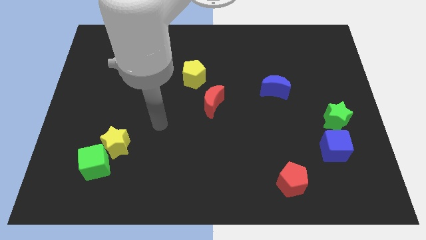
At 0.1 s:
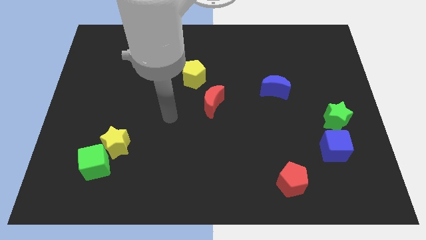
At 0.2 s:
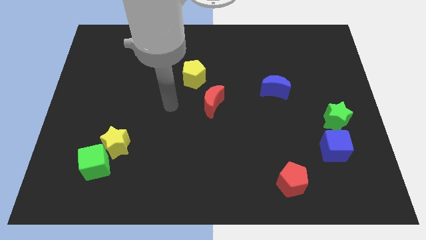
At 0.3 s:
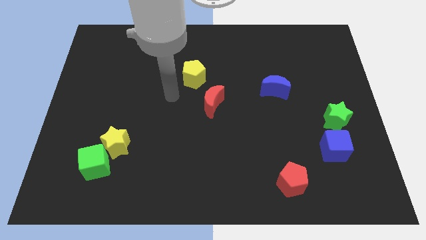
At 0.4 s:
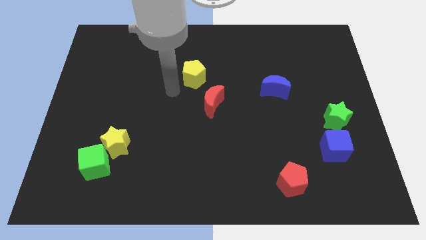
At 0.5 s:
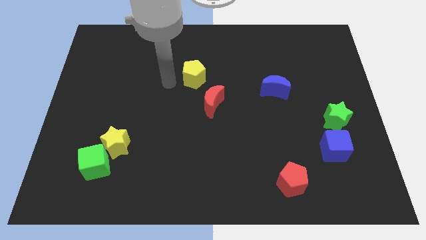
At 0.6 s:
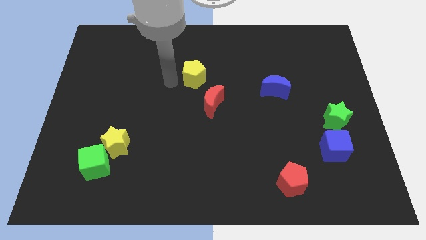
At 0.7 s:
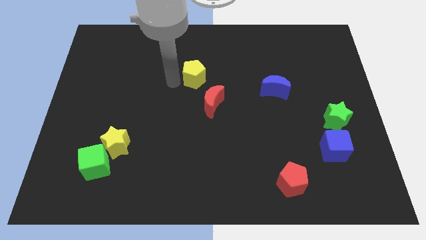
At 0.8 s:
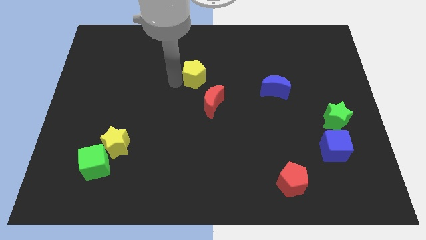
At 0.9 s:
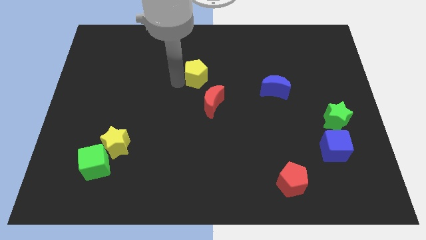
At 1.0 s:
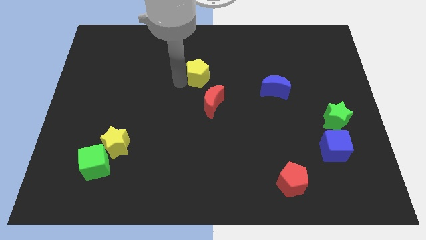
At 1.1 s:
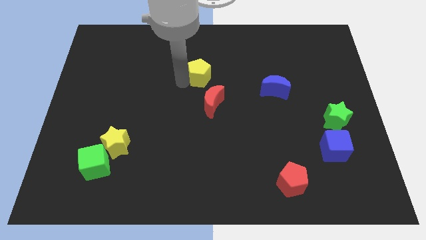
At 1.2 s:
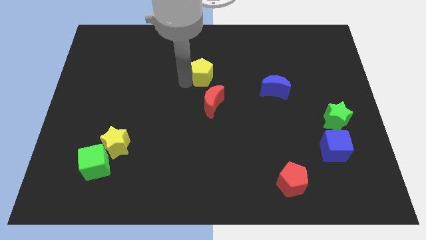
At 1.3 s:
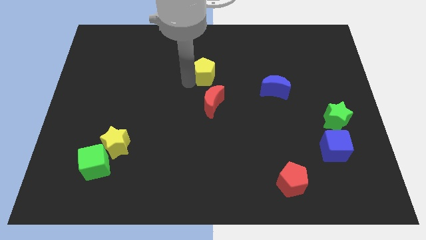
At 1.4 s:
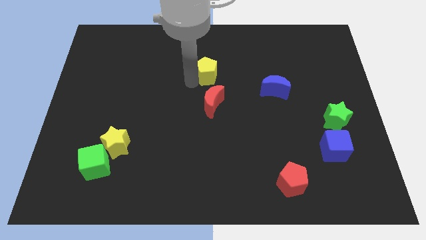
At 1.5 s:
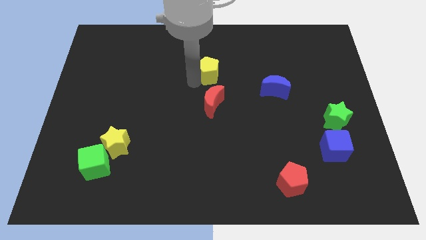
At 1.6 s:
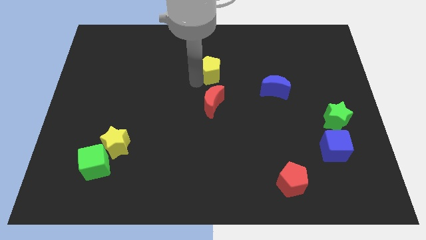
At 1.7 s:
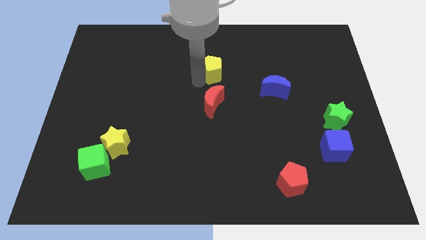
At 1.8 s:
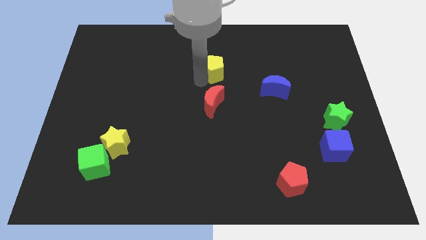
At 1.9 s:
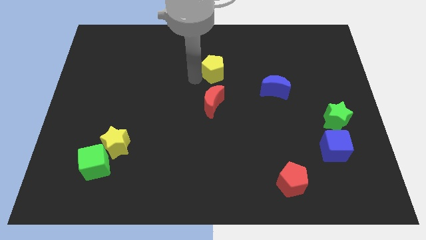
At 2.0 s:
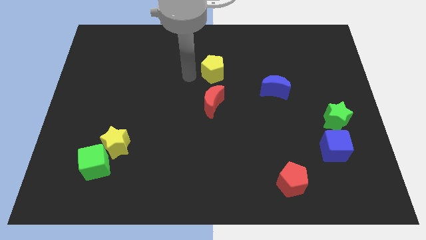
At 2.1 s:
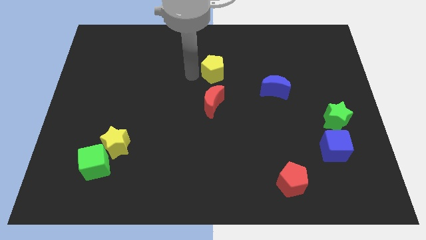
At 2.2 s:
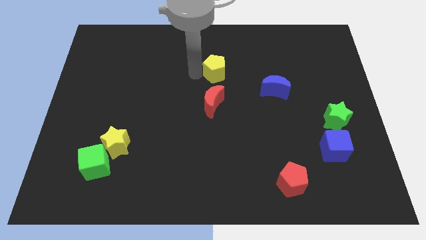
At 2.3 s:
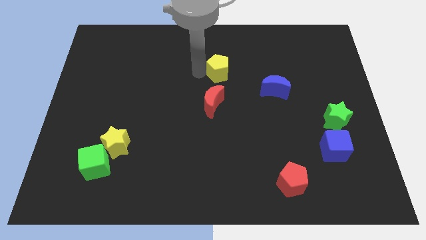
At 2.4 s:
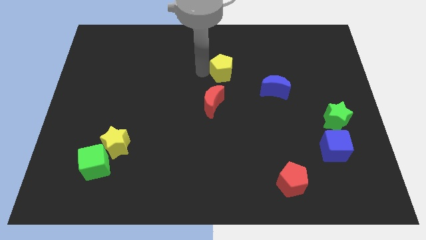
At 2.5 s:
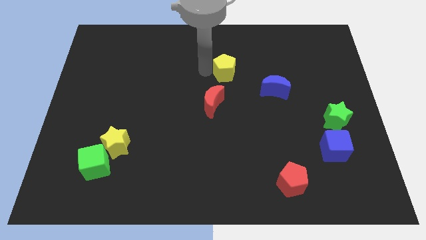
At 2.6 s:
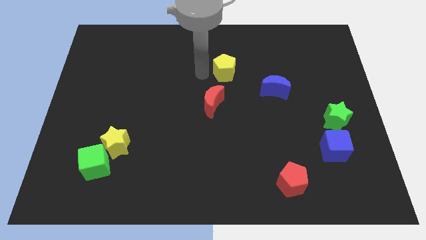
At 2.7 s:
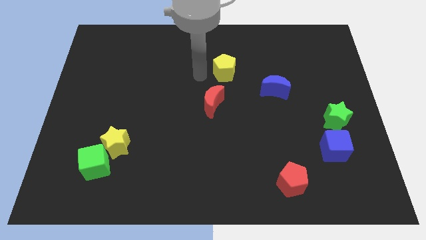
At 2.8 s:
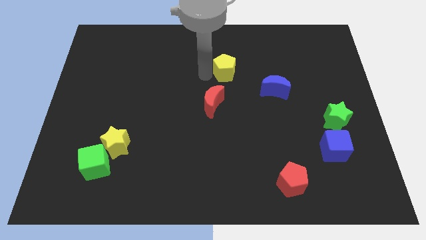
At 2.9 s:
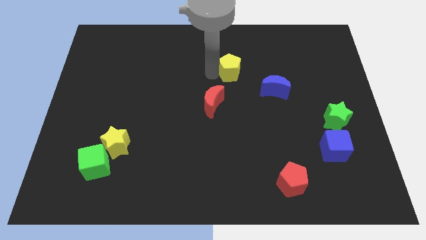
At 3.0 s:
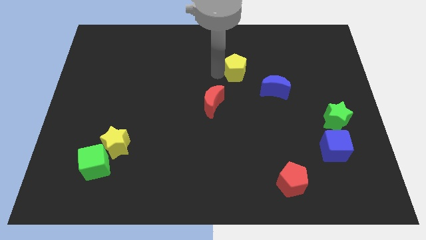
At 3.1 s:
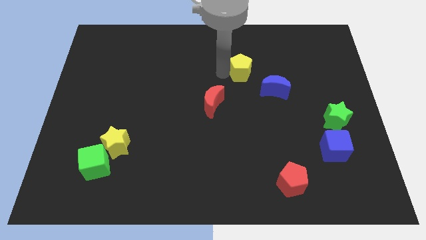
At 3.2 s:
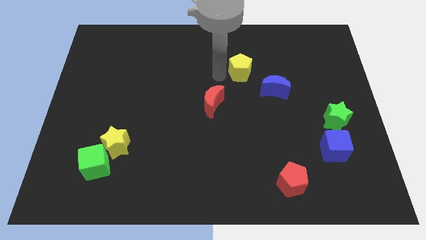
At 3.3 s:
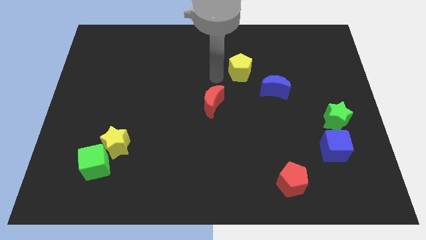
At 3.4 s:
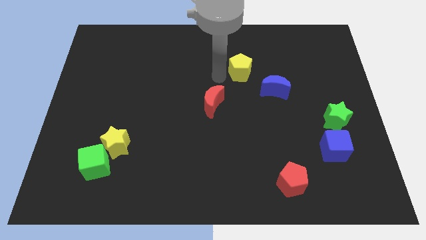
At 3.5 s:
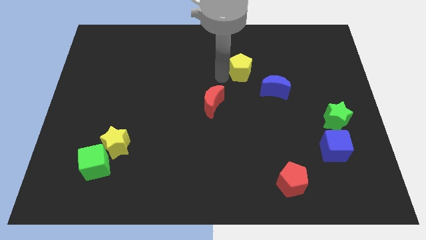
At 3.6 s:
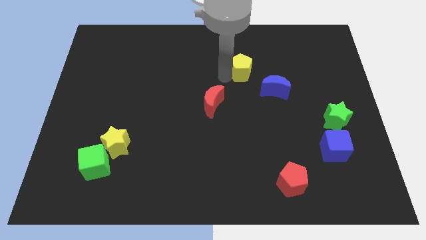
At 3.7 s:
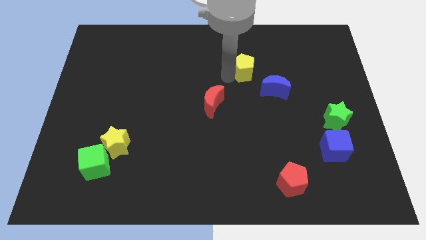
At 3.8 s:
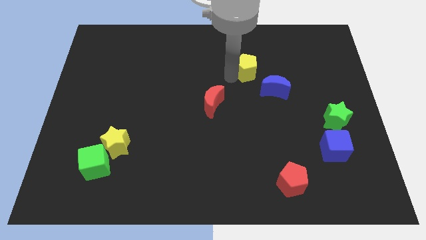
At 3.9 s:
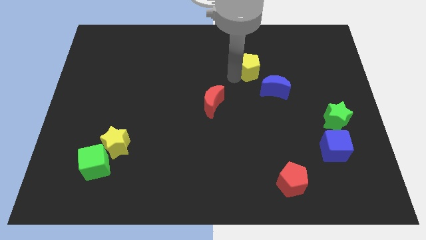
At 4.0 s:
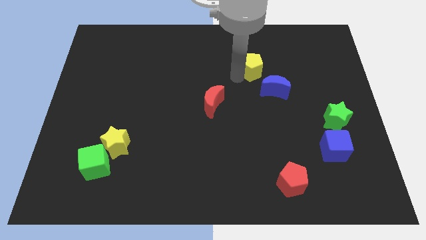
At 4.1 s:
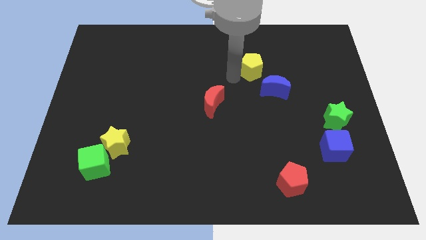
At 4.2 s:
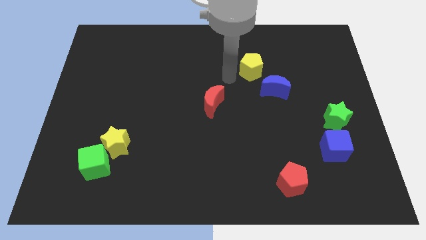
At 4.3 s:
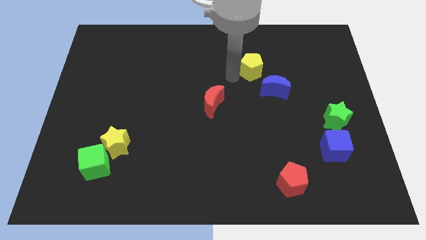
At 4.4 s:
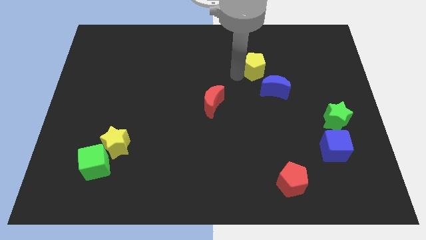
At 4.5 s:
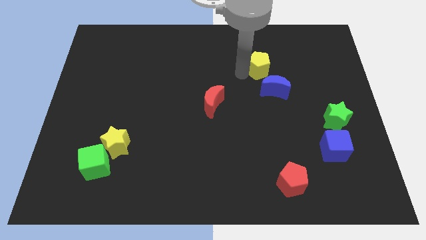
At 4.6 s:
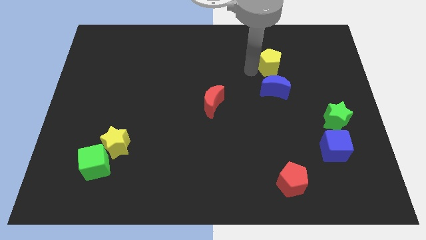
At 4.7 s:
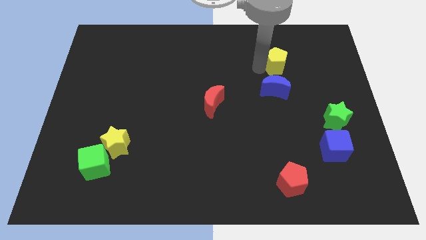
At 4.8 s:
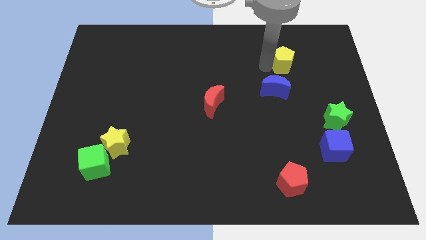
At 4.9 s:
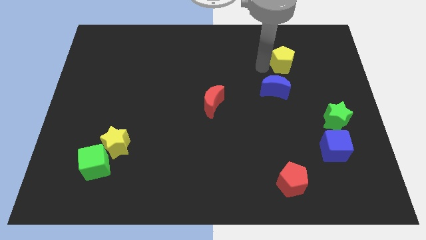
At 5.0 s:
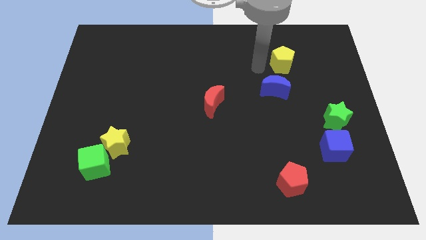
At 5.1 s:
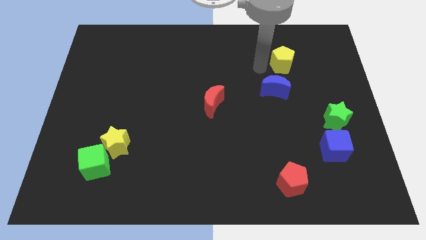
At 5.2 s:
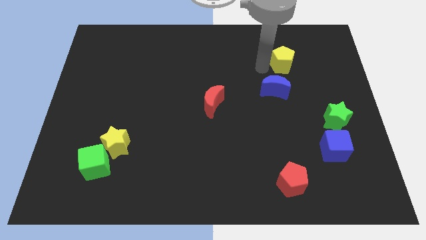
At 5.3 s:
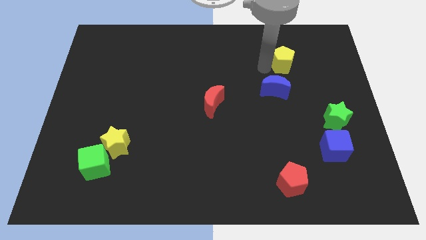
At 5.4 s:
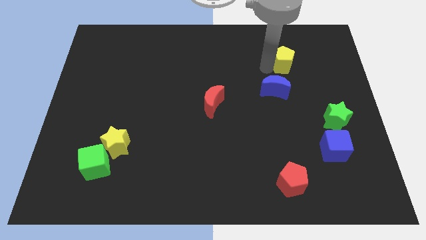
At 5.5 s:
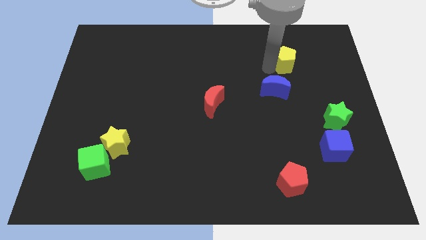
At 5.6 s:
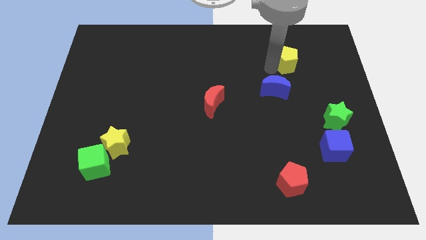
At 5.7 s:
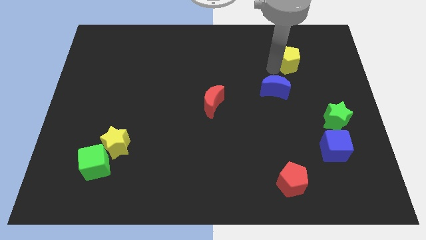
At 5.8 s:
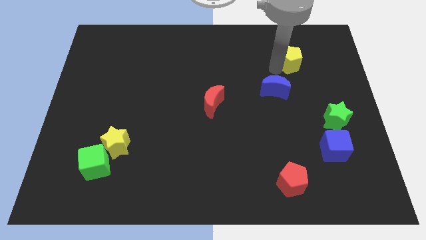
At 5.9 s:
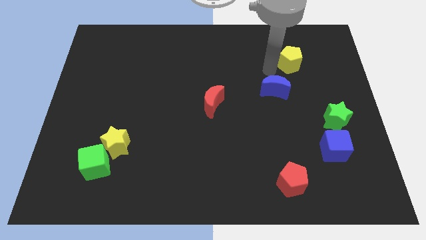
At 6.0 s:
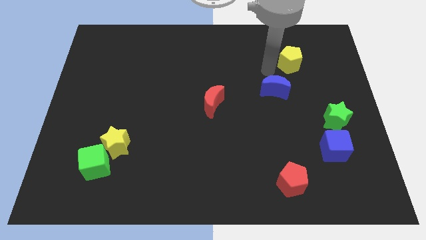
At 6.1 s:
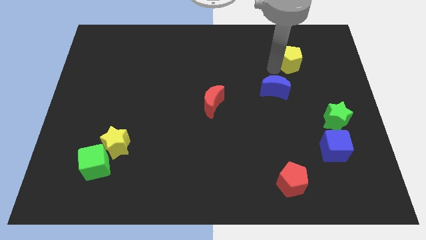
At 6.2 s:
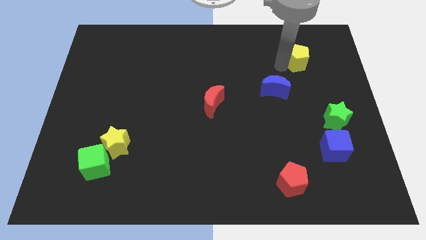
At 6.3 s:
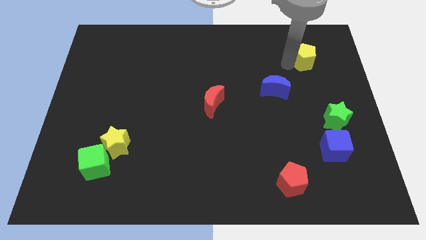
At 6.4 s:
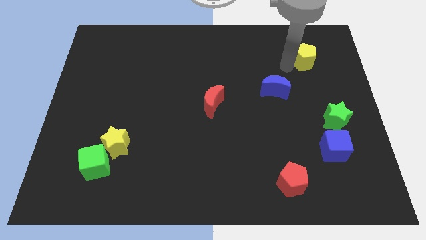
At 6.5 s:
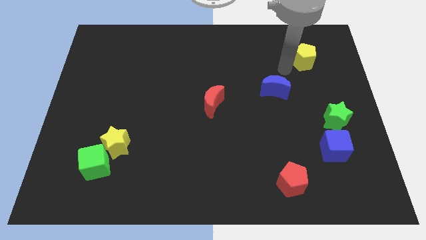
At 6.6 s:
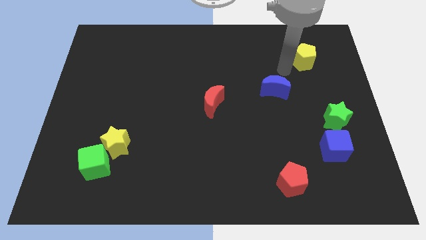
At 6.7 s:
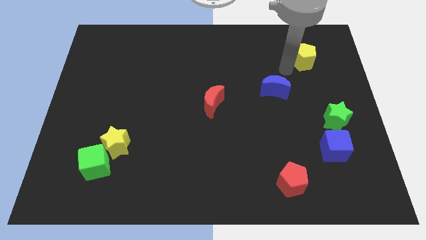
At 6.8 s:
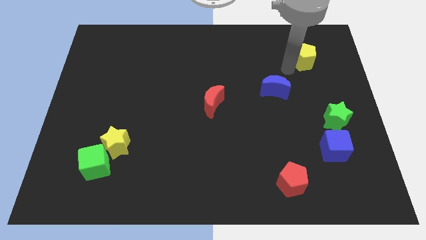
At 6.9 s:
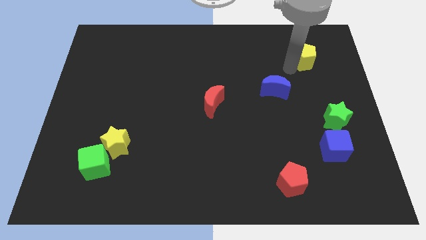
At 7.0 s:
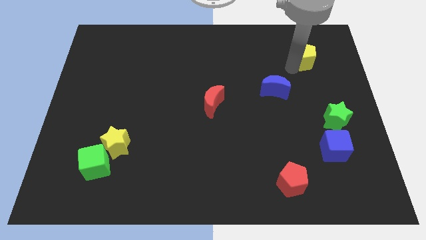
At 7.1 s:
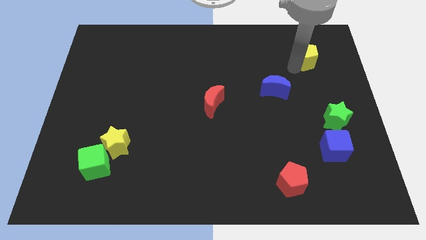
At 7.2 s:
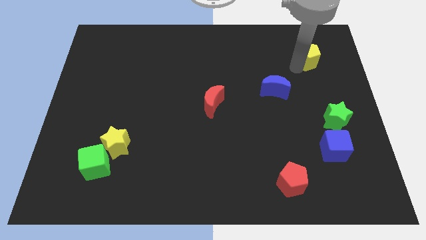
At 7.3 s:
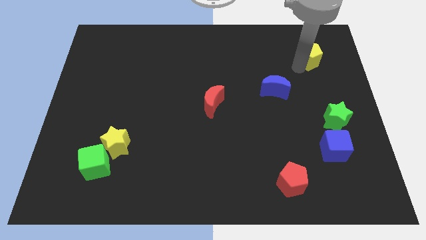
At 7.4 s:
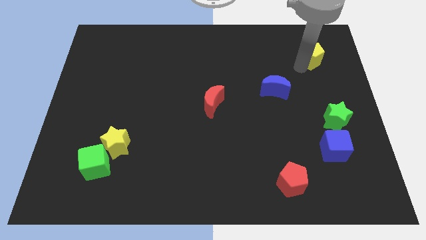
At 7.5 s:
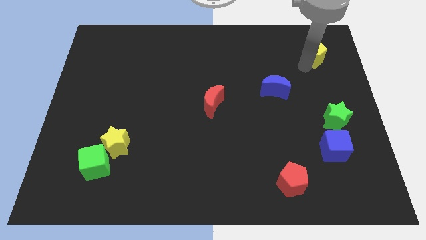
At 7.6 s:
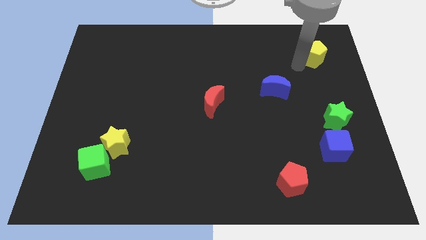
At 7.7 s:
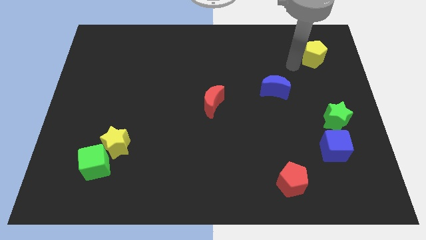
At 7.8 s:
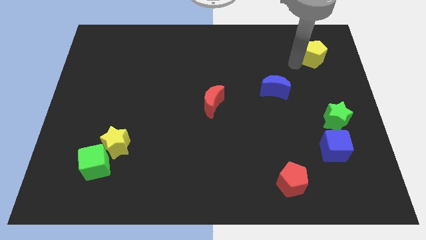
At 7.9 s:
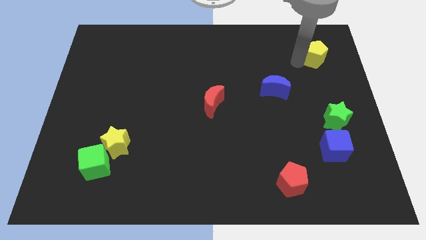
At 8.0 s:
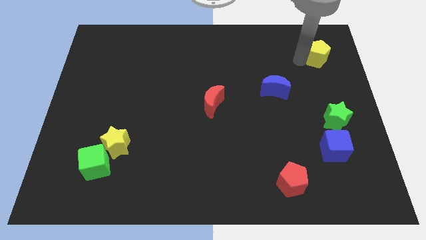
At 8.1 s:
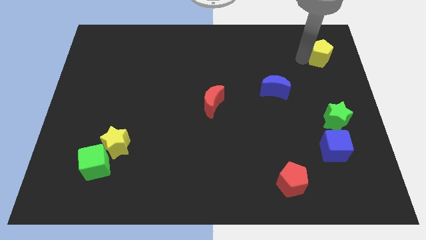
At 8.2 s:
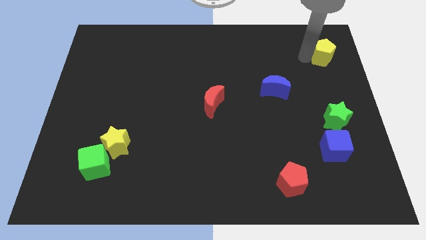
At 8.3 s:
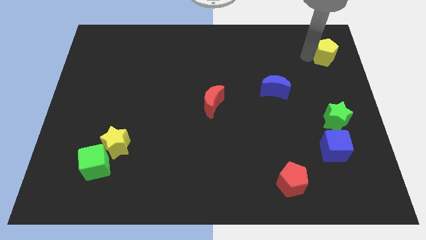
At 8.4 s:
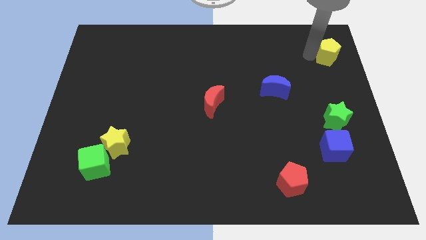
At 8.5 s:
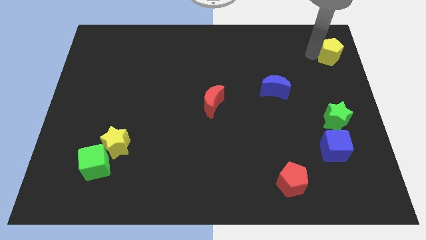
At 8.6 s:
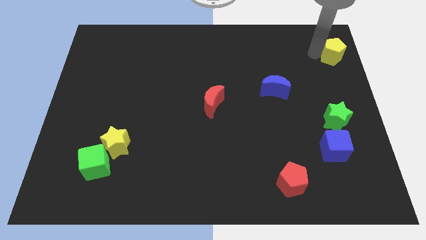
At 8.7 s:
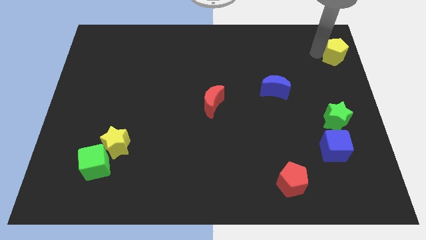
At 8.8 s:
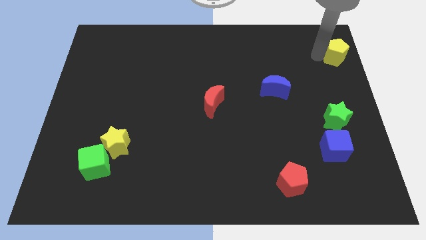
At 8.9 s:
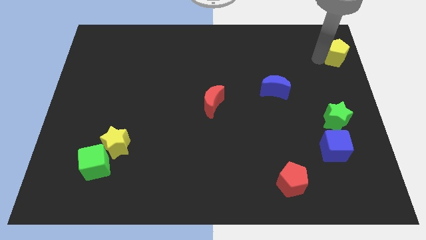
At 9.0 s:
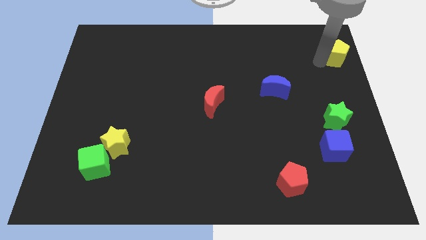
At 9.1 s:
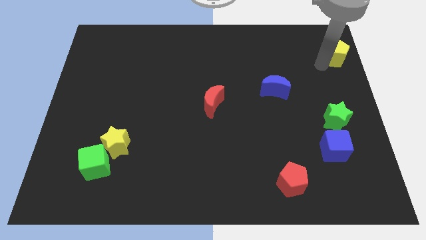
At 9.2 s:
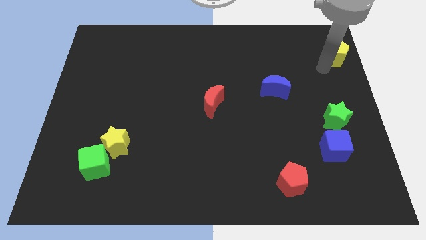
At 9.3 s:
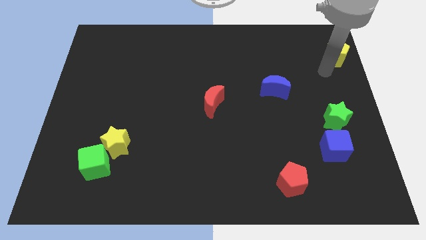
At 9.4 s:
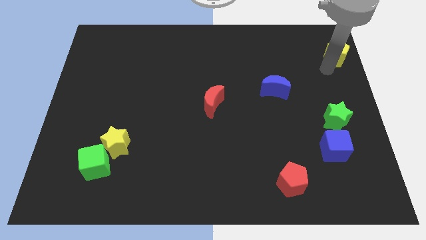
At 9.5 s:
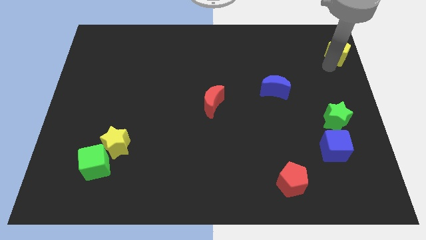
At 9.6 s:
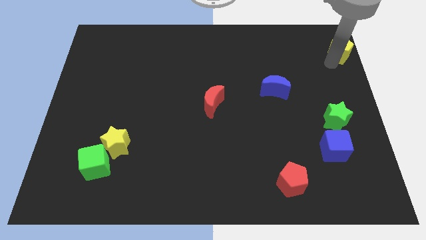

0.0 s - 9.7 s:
put the yellow pentagon to the upper right corner
